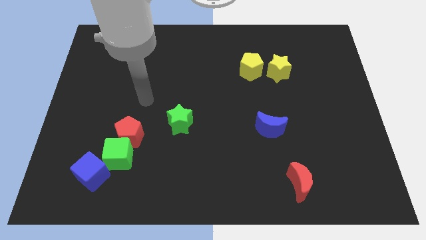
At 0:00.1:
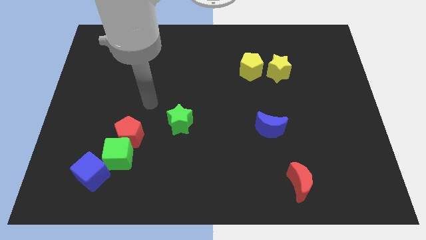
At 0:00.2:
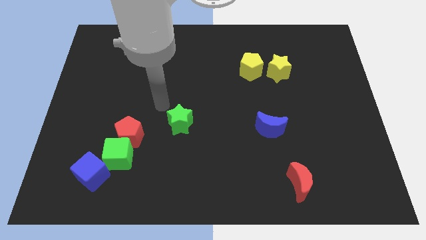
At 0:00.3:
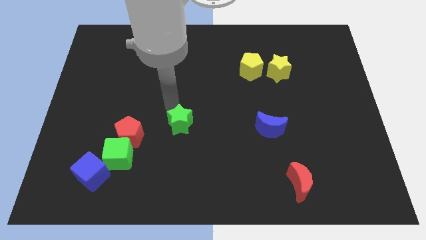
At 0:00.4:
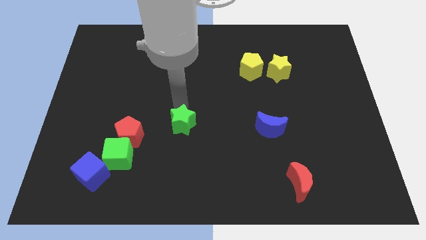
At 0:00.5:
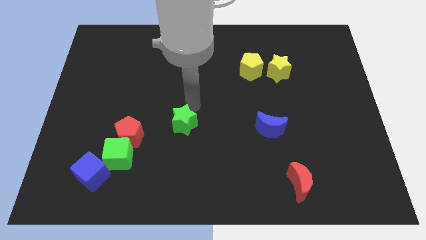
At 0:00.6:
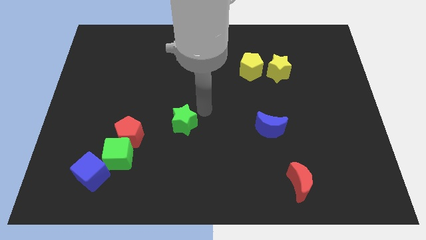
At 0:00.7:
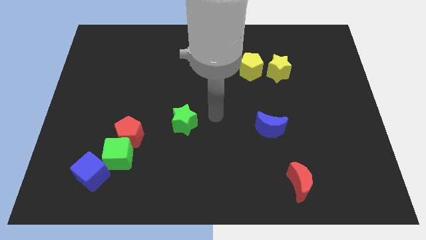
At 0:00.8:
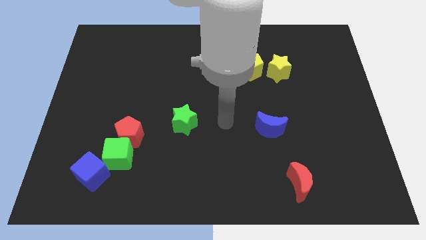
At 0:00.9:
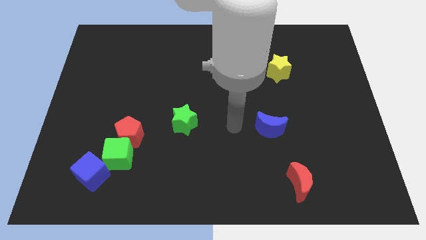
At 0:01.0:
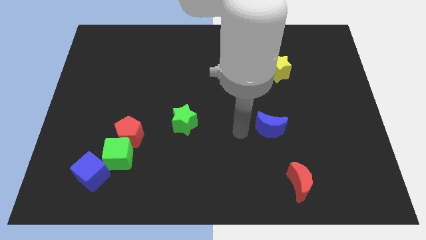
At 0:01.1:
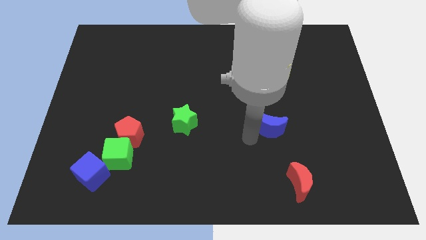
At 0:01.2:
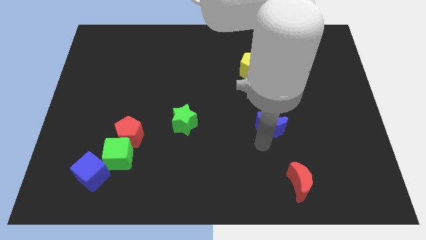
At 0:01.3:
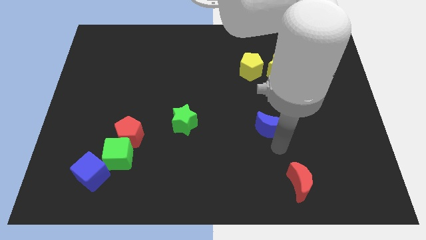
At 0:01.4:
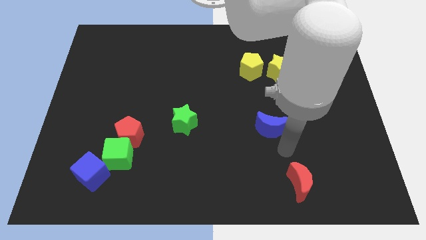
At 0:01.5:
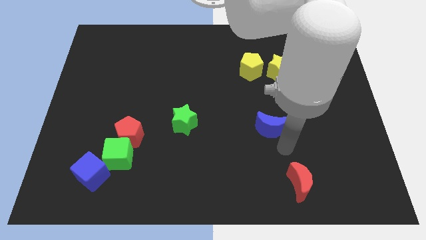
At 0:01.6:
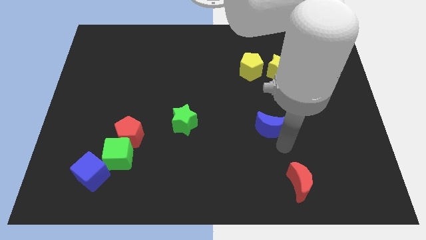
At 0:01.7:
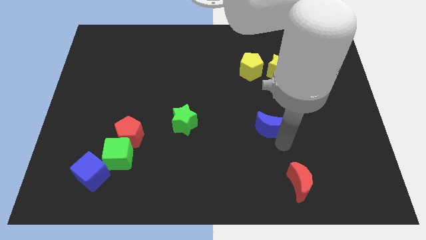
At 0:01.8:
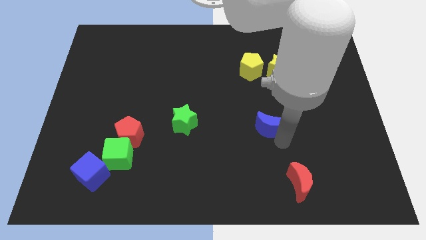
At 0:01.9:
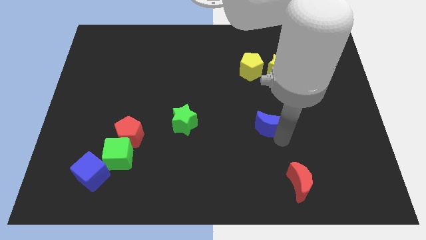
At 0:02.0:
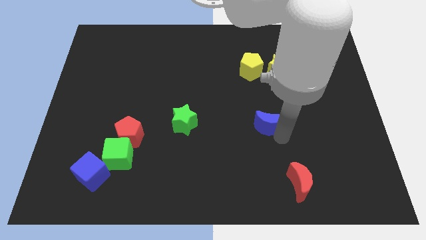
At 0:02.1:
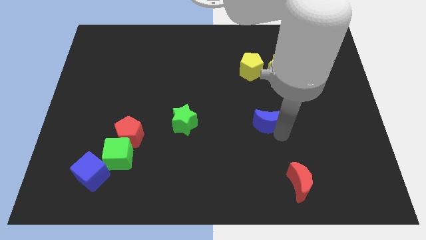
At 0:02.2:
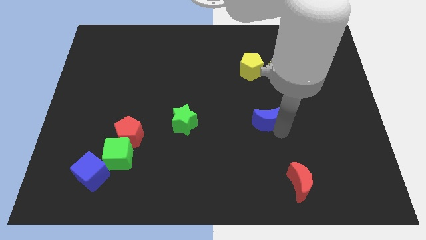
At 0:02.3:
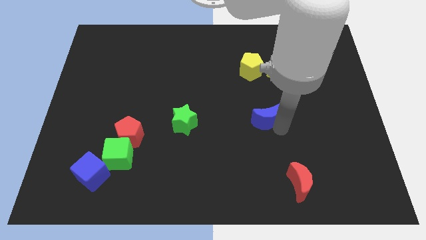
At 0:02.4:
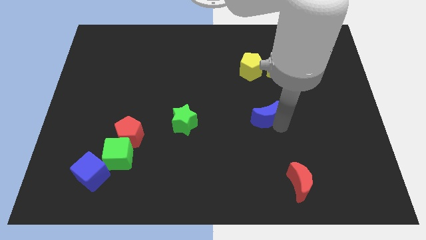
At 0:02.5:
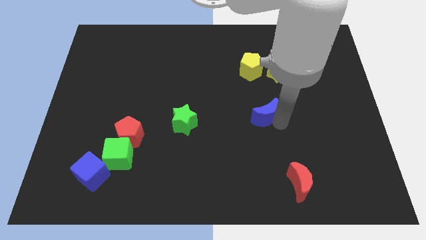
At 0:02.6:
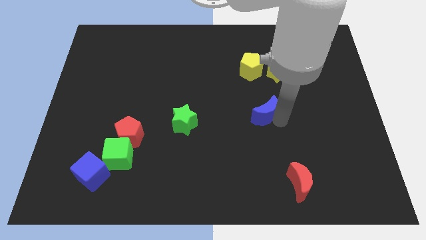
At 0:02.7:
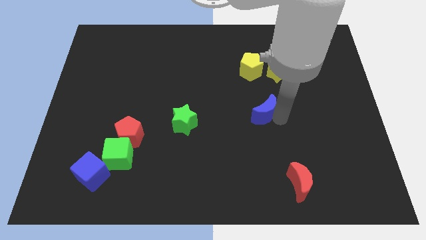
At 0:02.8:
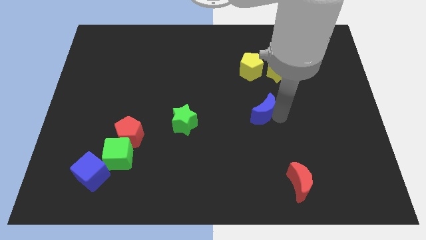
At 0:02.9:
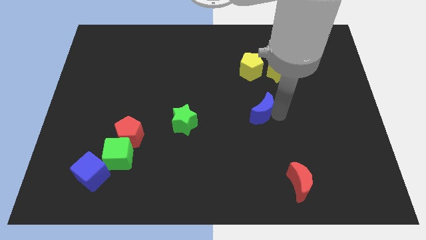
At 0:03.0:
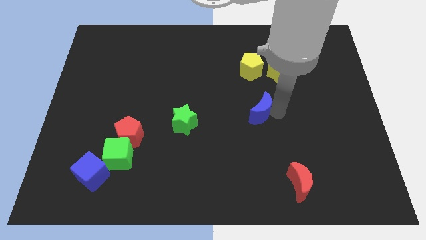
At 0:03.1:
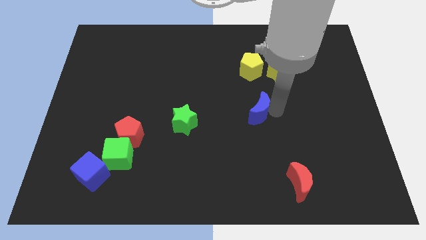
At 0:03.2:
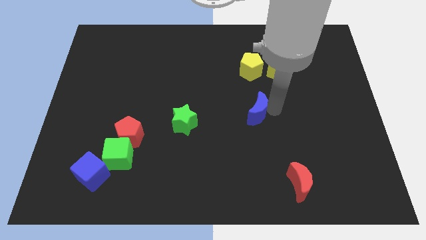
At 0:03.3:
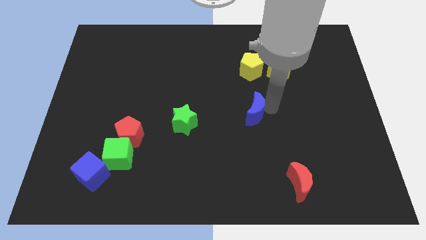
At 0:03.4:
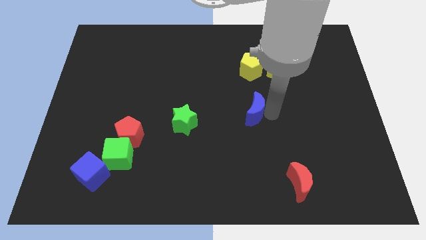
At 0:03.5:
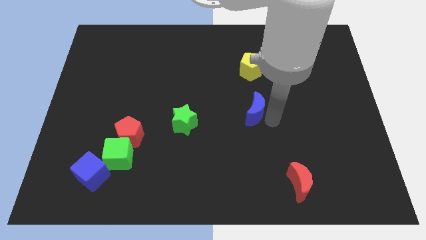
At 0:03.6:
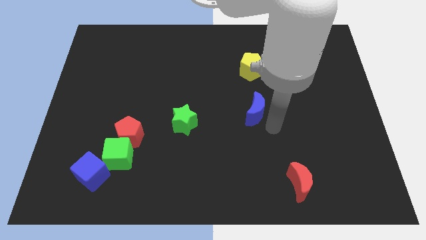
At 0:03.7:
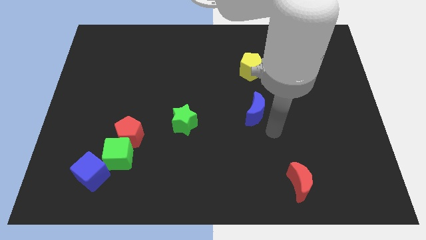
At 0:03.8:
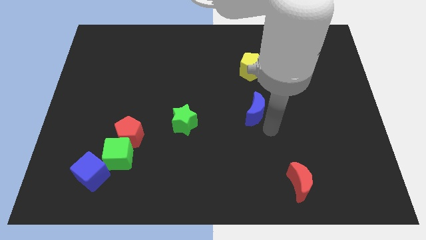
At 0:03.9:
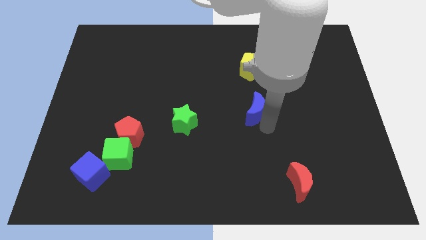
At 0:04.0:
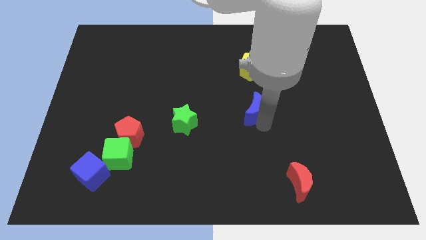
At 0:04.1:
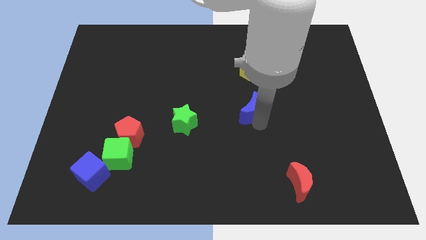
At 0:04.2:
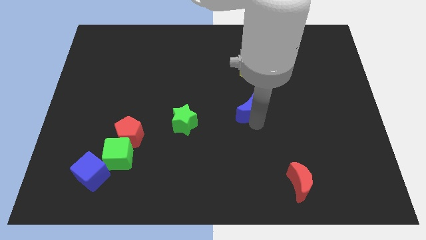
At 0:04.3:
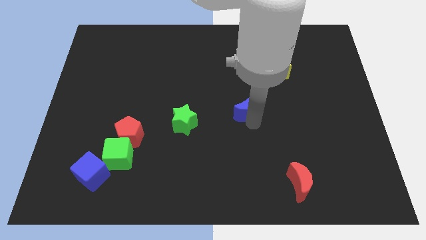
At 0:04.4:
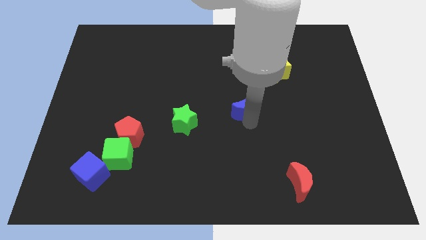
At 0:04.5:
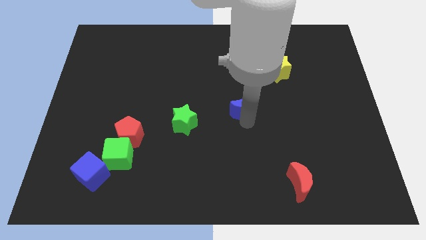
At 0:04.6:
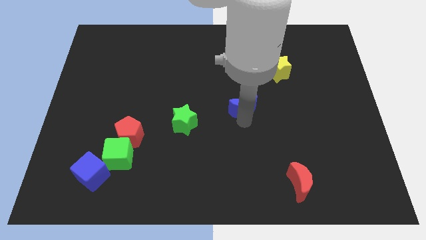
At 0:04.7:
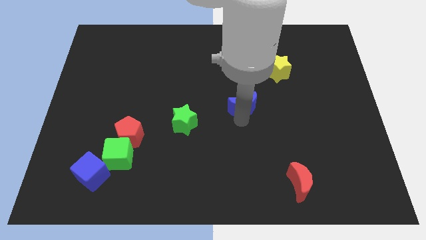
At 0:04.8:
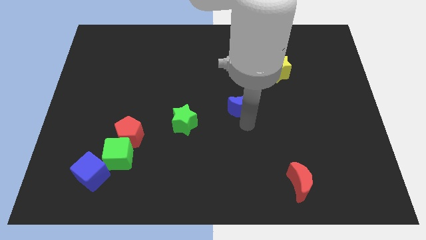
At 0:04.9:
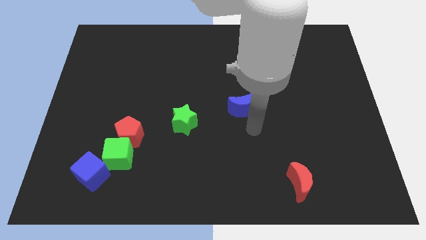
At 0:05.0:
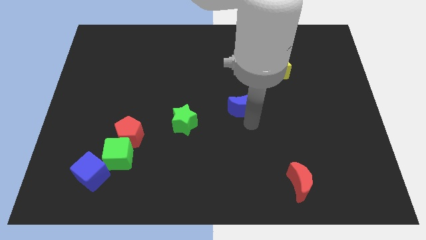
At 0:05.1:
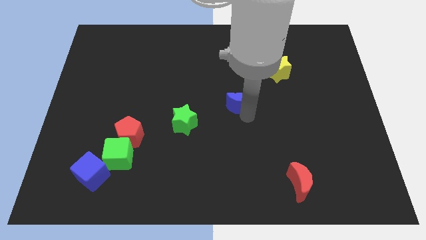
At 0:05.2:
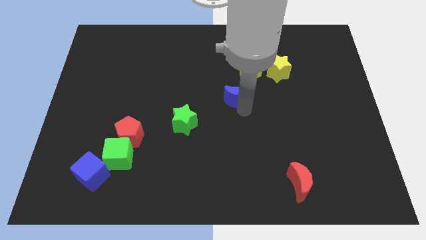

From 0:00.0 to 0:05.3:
move the blue moon diagonally down and to the left of the yellow pentagon

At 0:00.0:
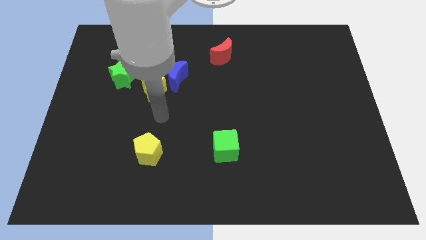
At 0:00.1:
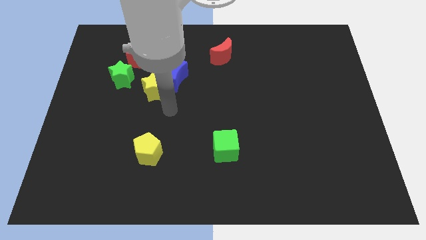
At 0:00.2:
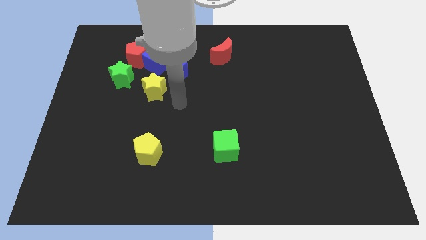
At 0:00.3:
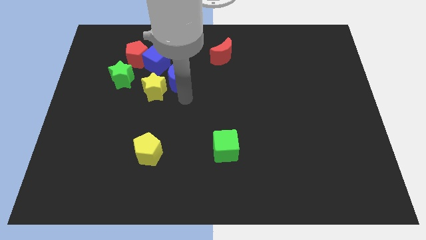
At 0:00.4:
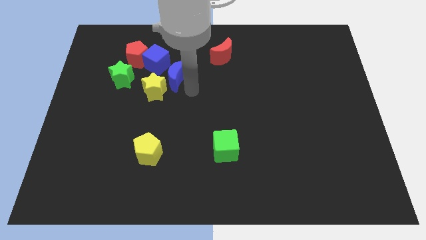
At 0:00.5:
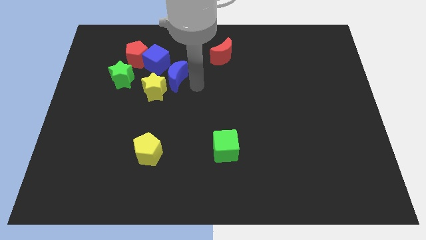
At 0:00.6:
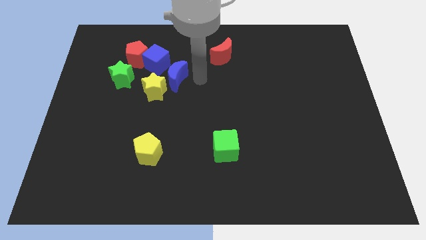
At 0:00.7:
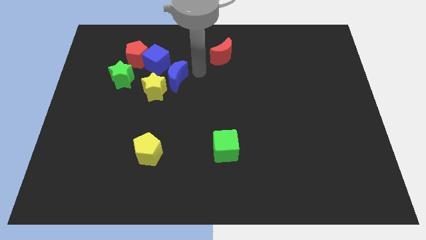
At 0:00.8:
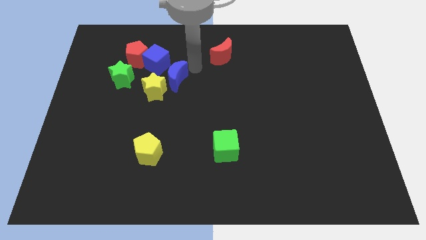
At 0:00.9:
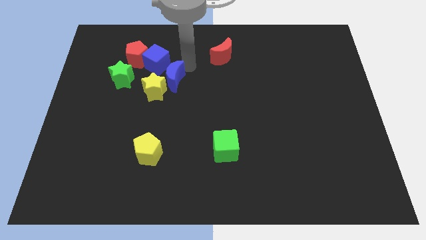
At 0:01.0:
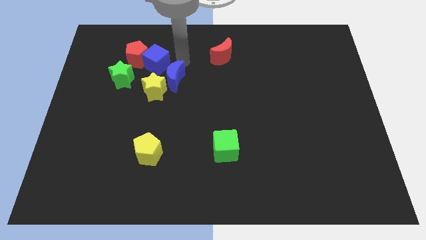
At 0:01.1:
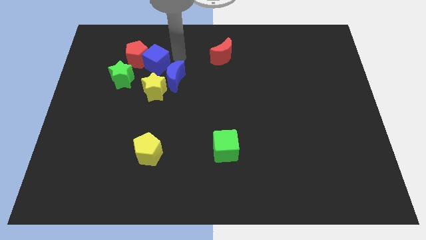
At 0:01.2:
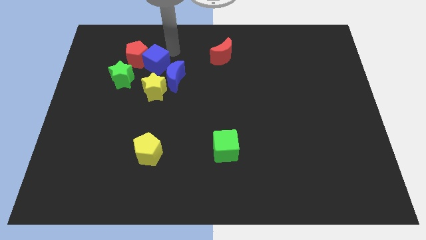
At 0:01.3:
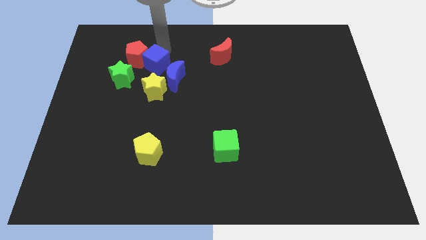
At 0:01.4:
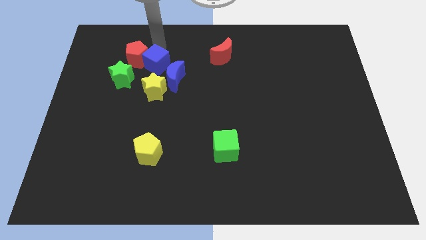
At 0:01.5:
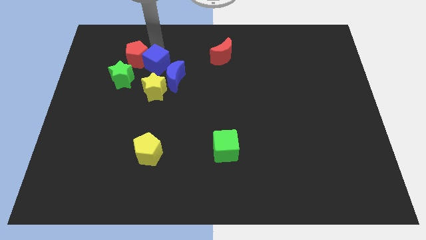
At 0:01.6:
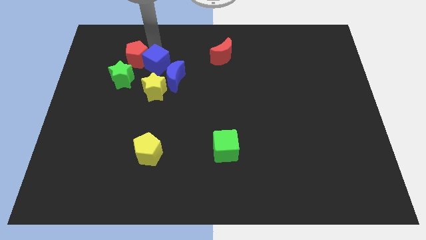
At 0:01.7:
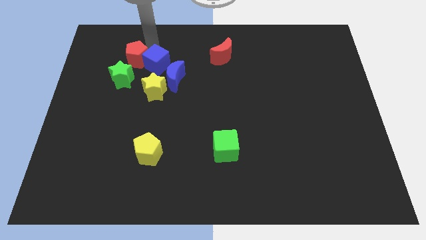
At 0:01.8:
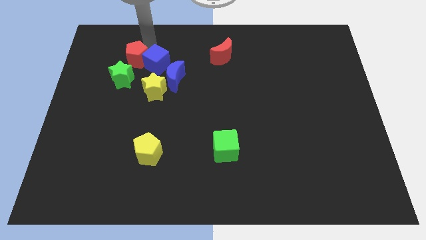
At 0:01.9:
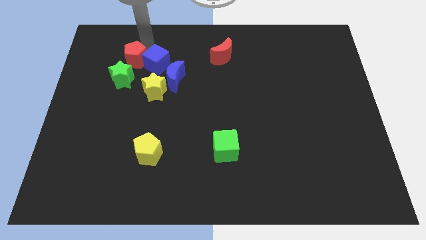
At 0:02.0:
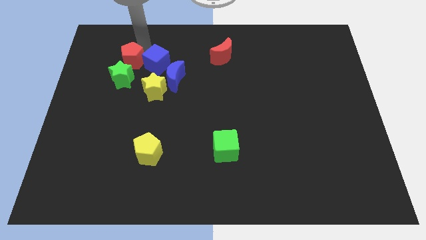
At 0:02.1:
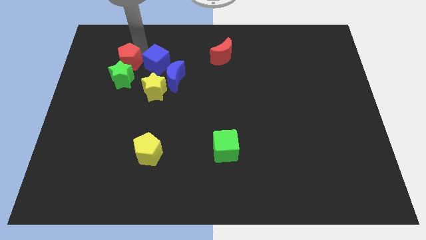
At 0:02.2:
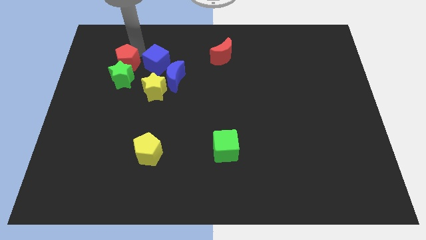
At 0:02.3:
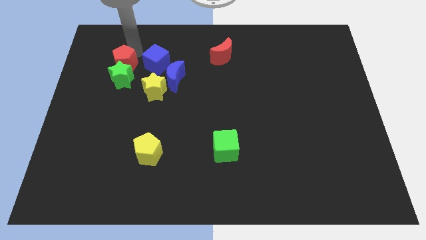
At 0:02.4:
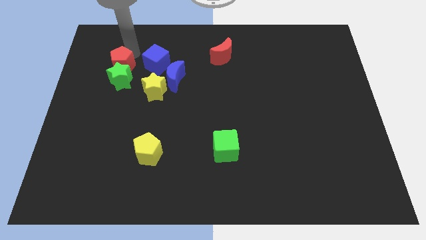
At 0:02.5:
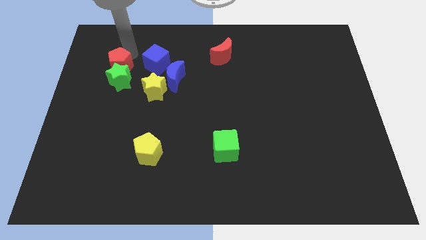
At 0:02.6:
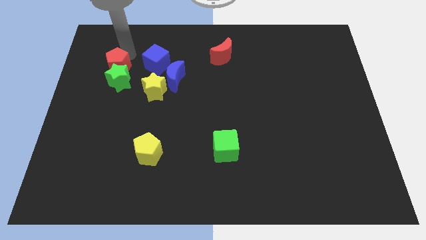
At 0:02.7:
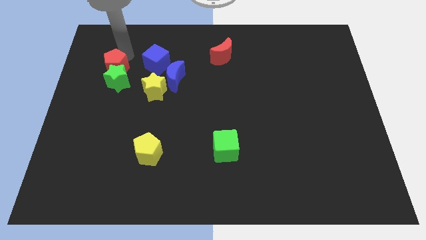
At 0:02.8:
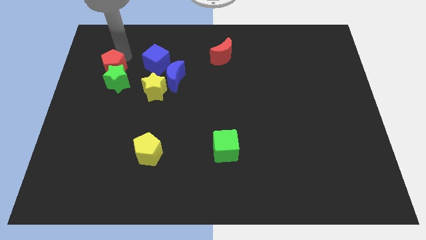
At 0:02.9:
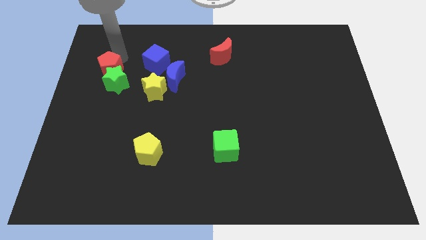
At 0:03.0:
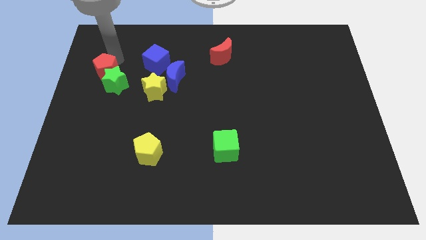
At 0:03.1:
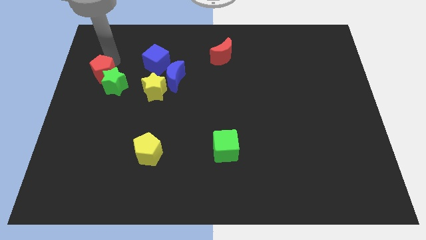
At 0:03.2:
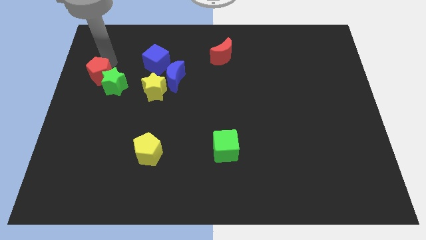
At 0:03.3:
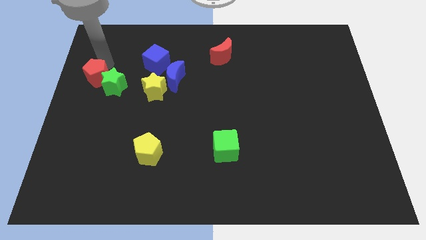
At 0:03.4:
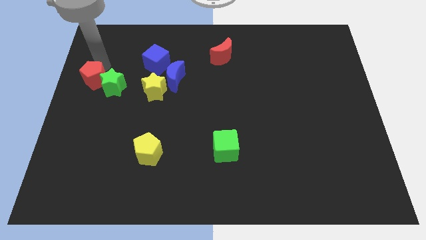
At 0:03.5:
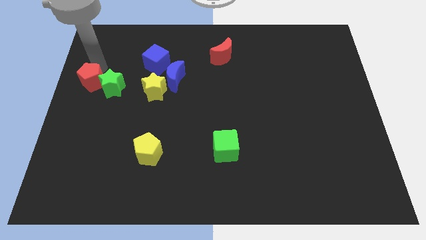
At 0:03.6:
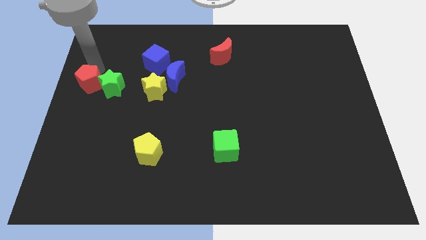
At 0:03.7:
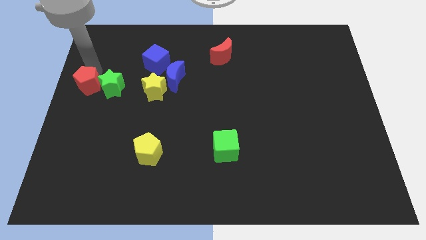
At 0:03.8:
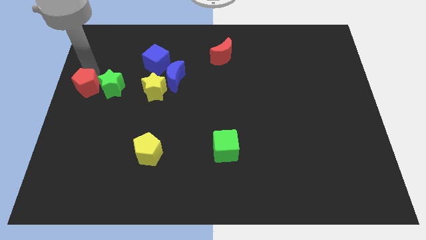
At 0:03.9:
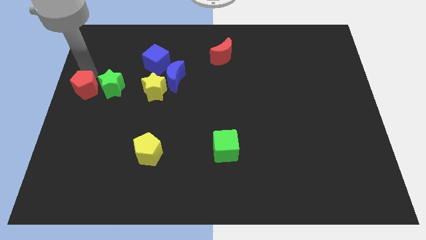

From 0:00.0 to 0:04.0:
put the red pentagon to the bottom left side of the green star
